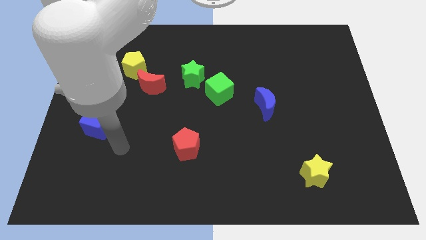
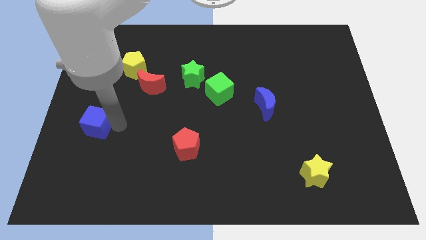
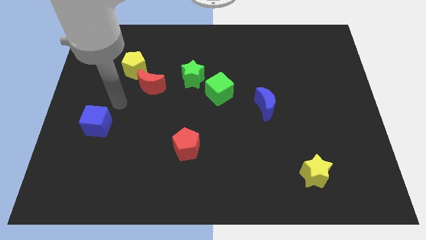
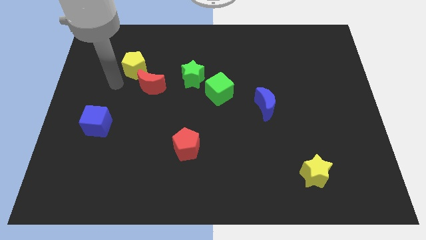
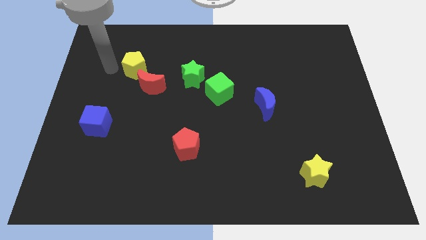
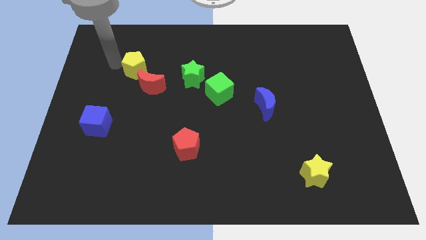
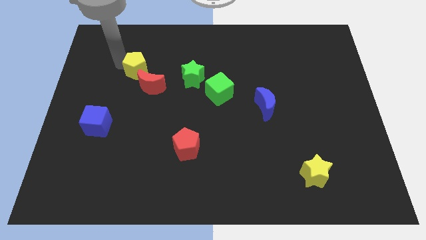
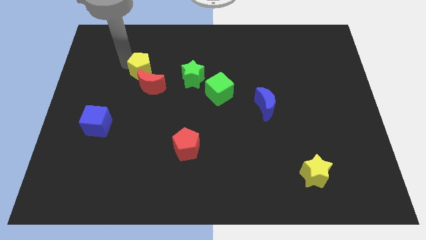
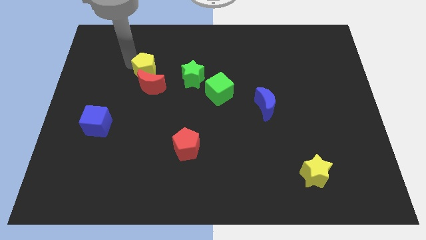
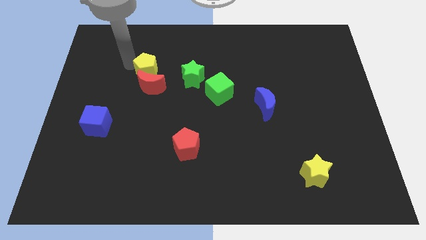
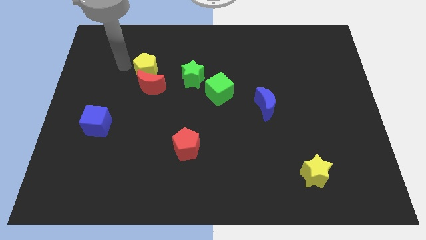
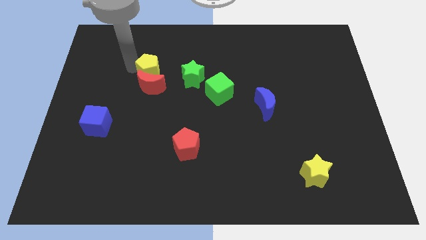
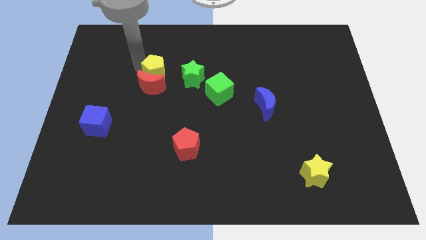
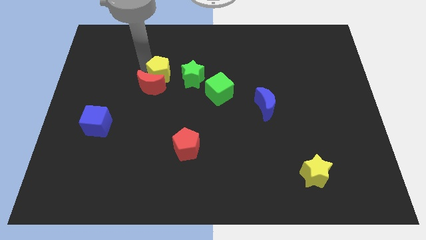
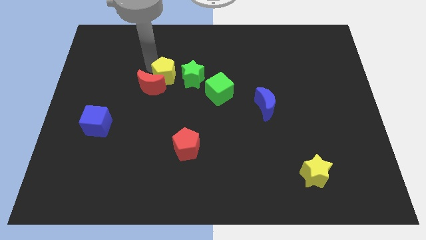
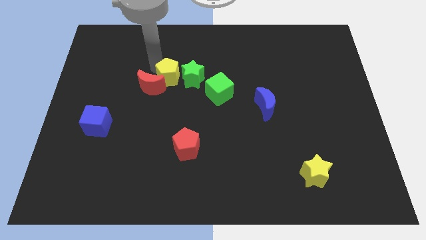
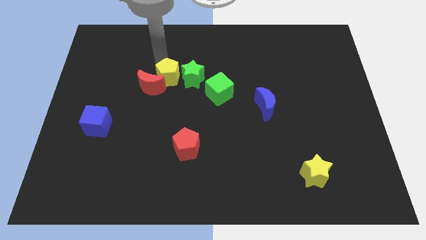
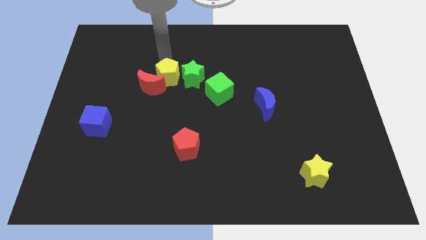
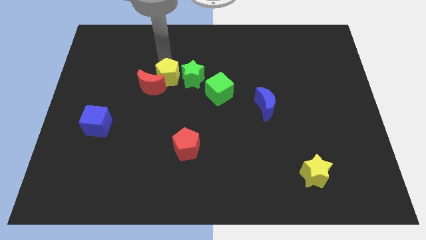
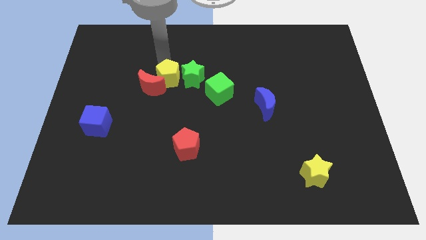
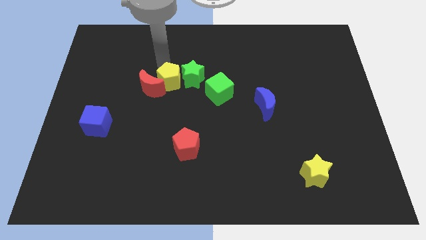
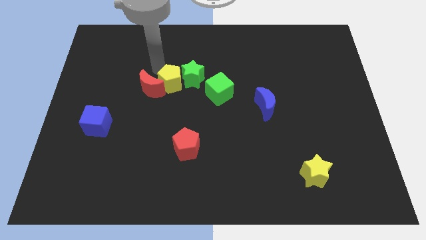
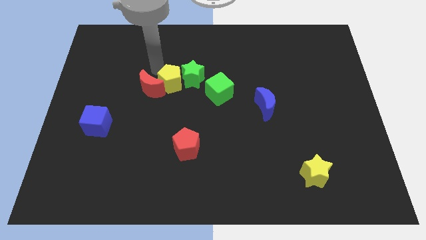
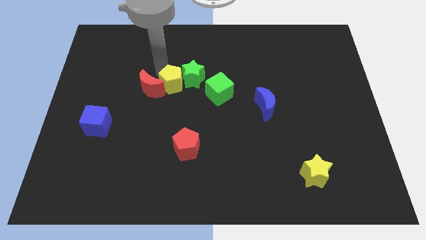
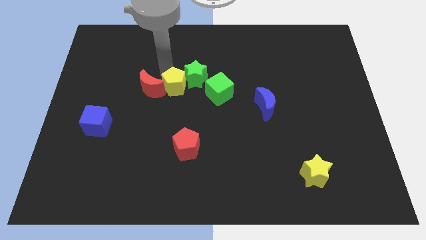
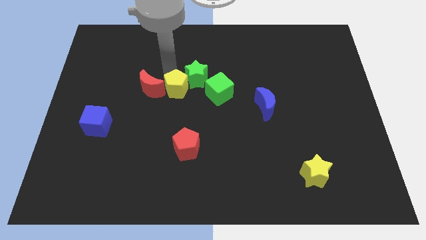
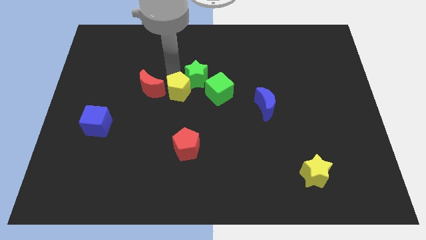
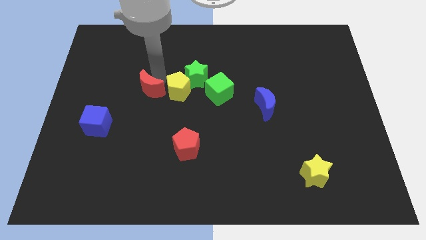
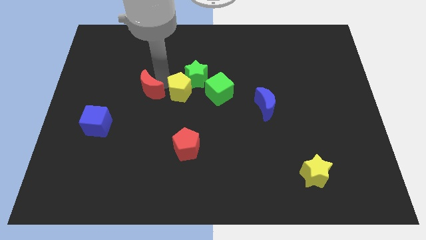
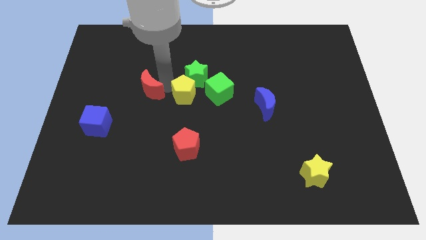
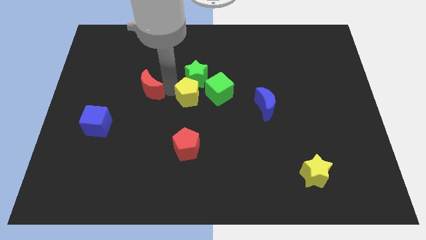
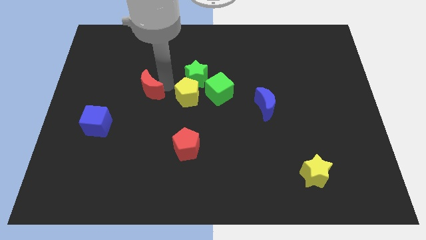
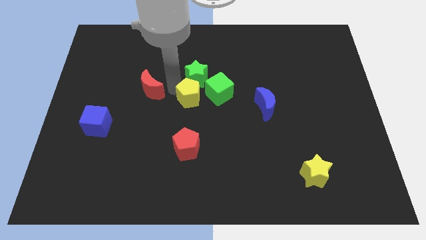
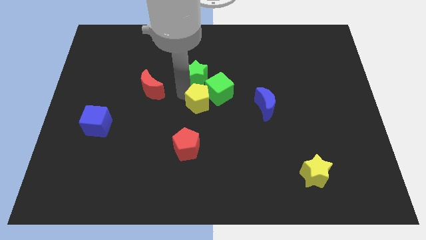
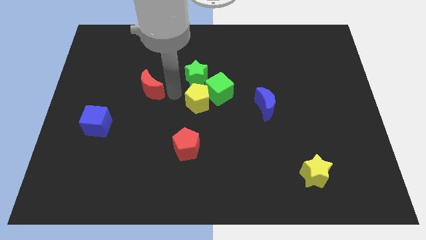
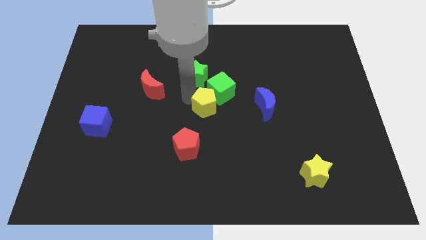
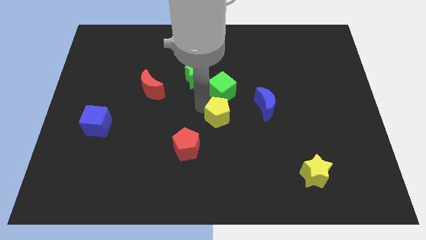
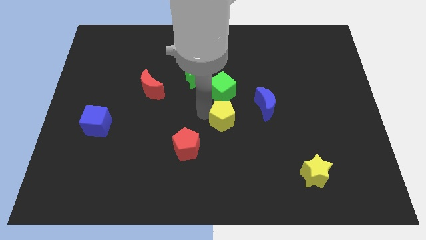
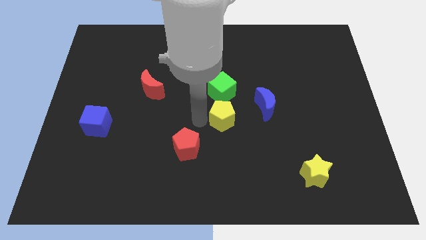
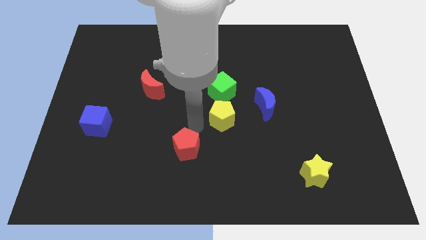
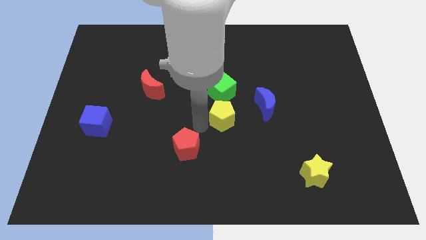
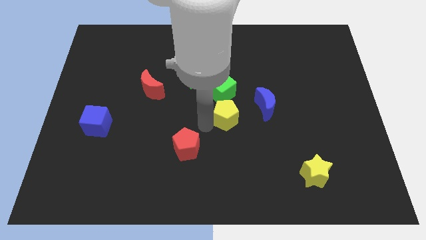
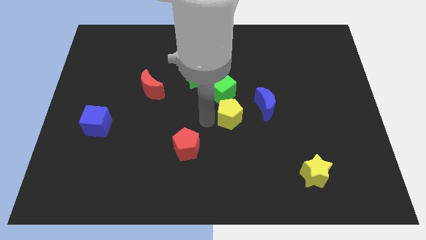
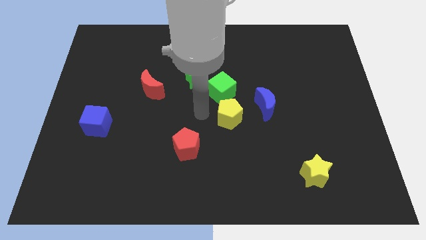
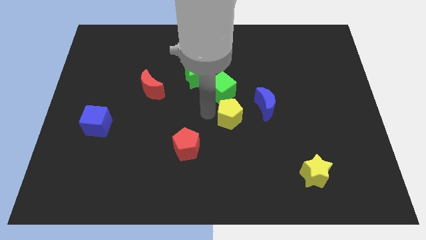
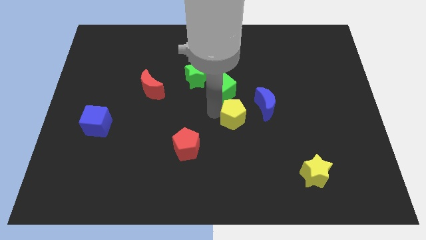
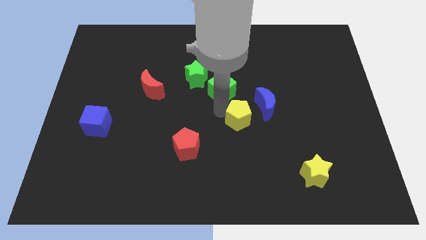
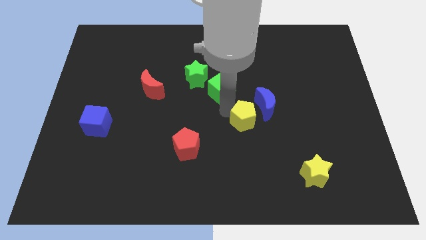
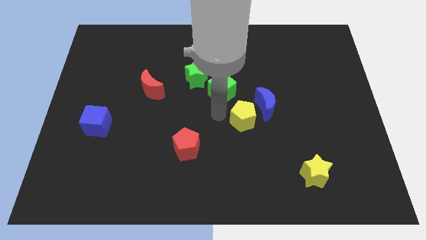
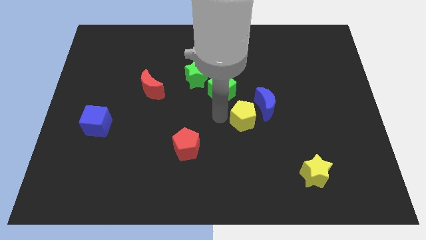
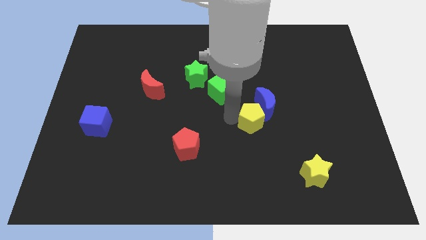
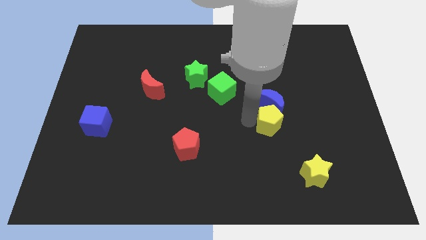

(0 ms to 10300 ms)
move the yellow pentagon diagonally down and to the right of the blue moon

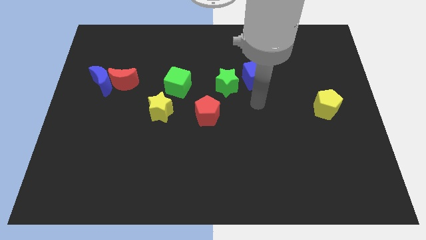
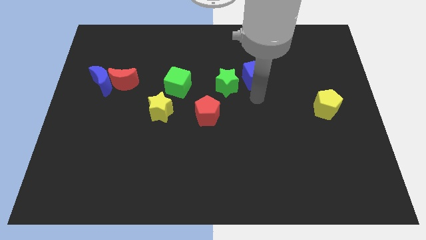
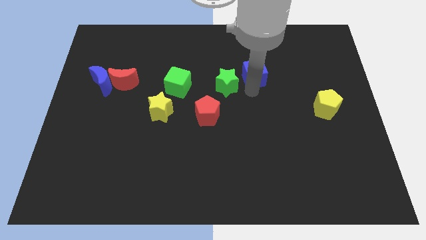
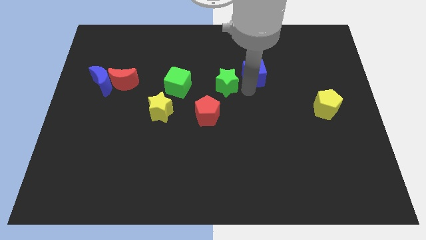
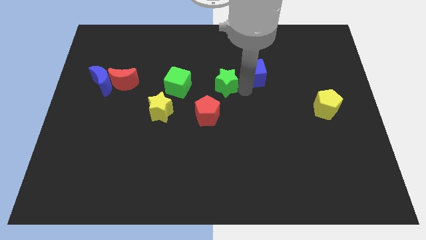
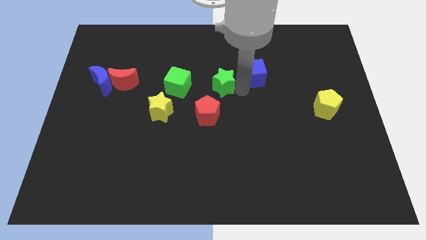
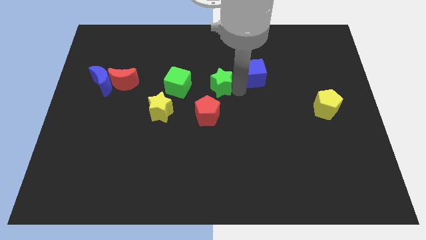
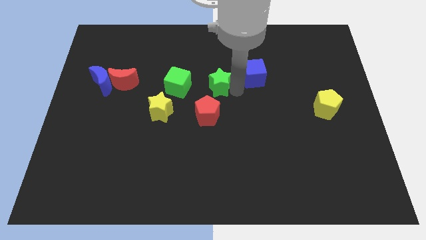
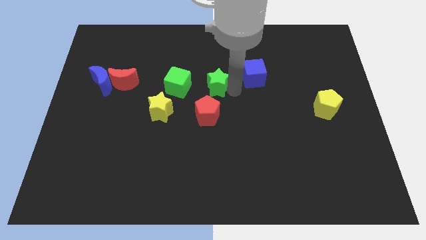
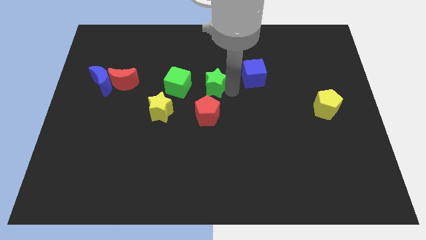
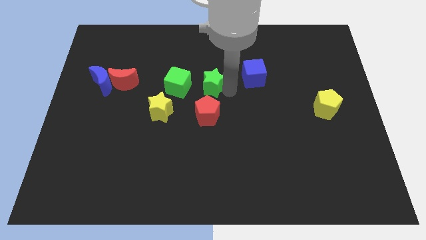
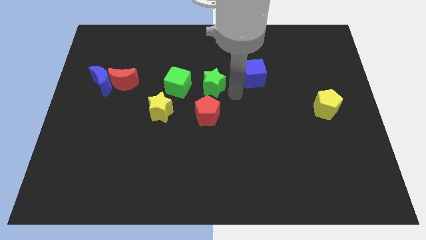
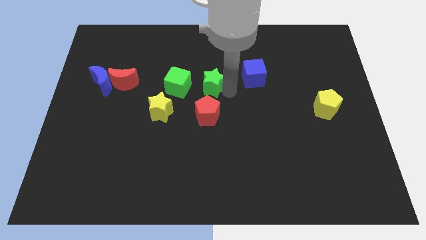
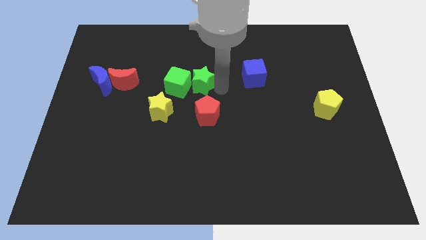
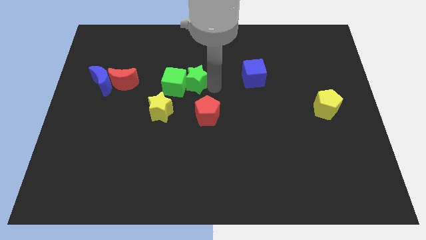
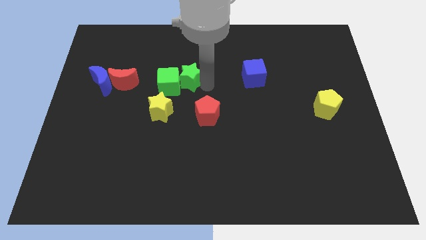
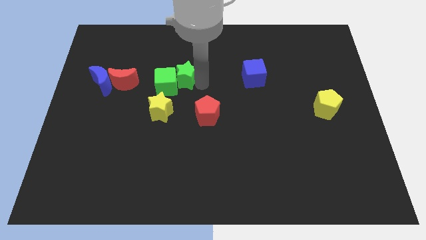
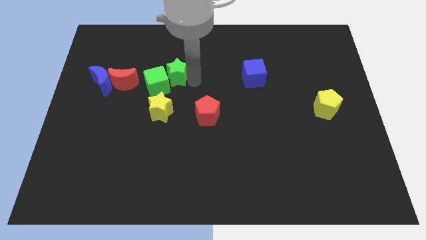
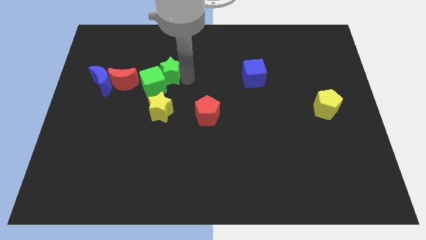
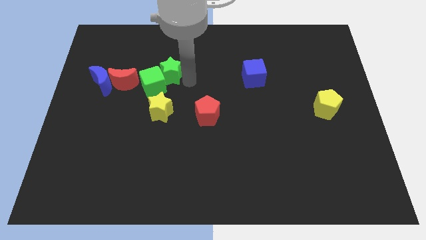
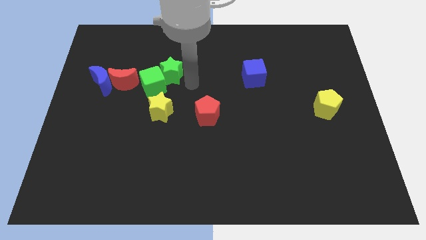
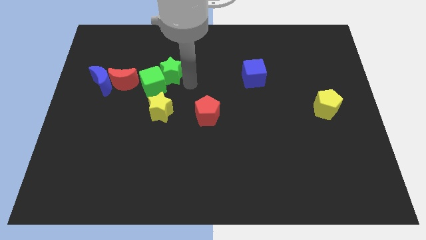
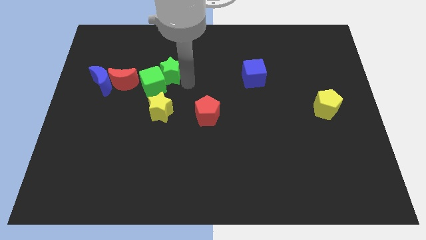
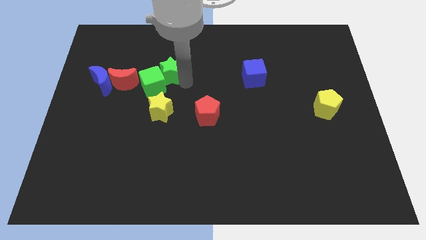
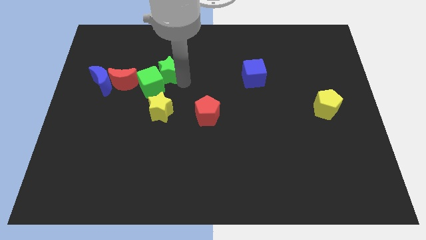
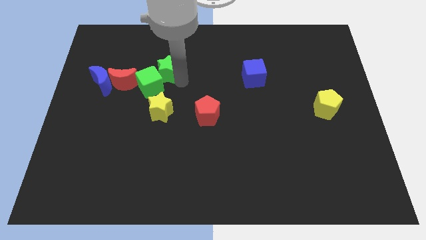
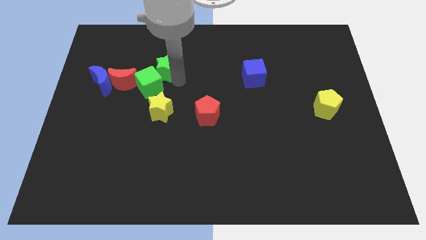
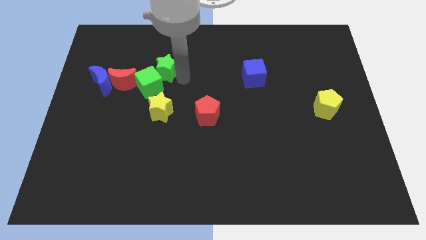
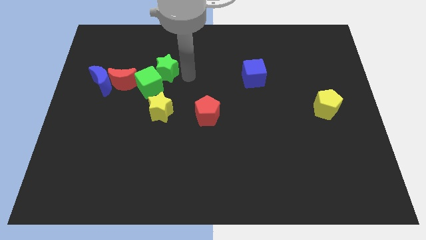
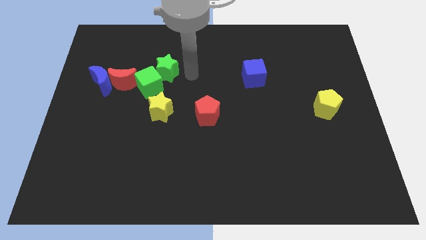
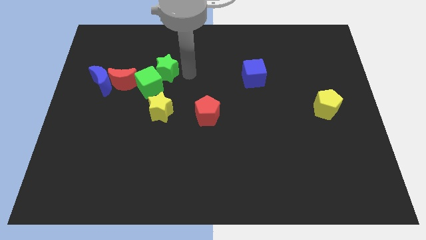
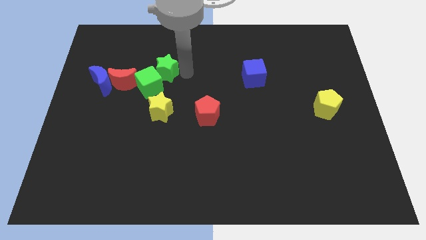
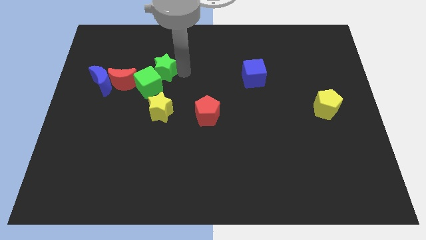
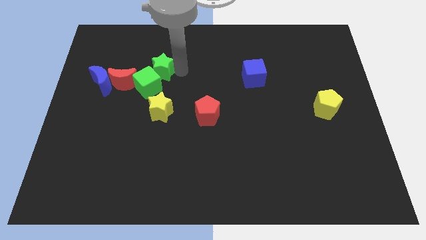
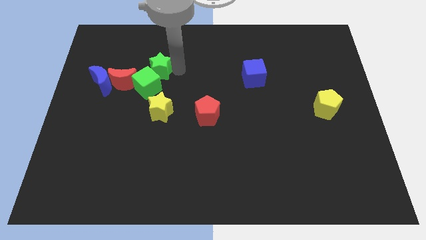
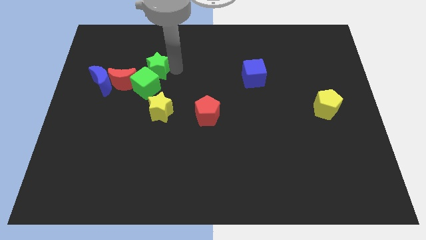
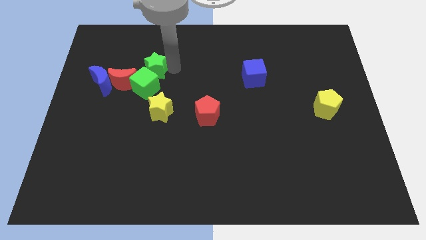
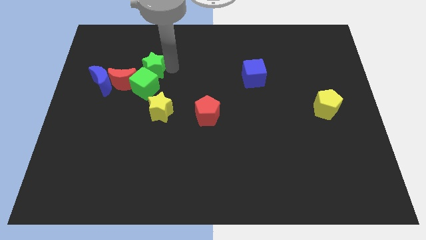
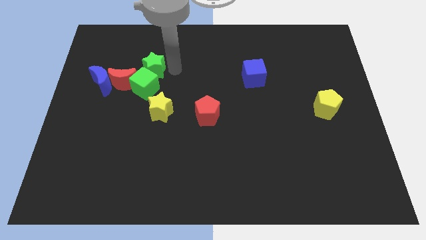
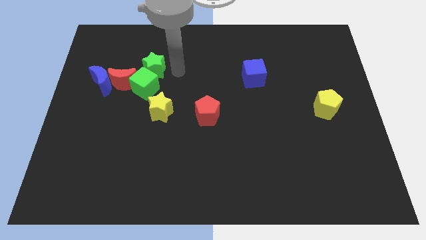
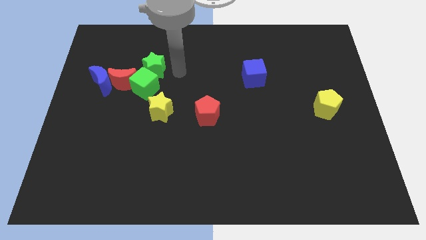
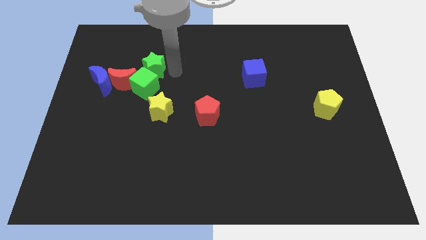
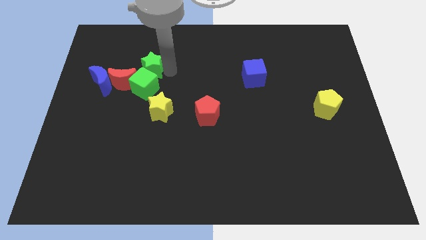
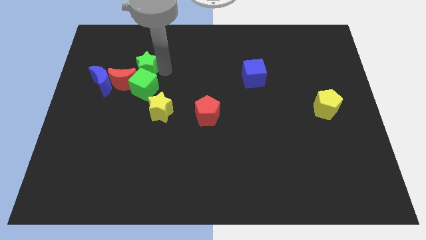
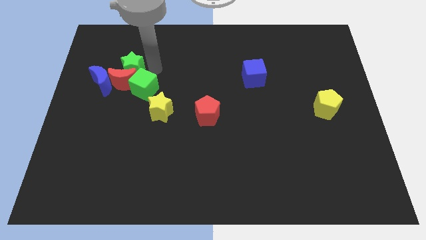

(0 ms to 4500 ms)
slide the green star diagonally up and to the left of the red moon
